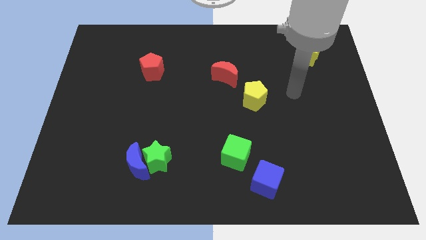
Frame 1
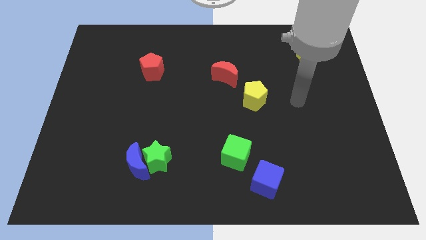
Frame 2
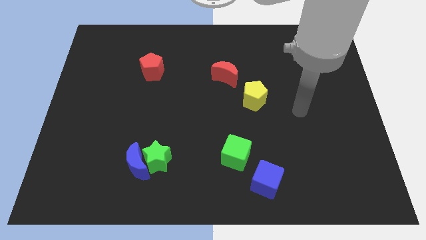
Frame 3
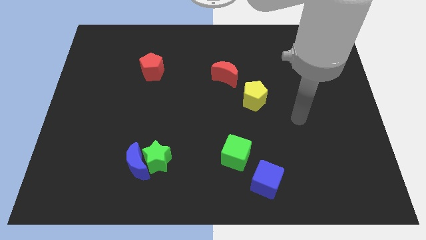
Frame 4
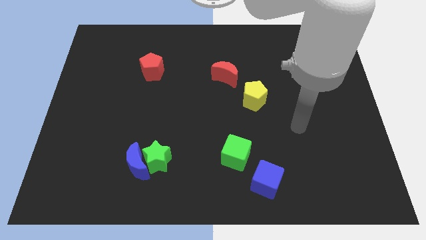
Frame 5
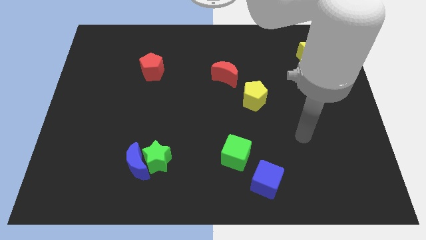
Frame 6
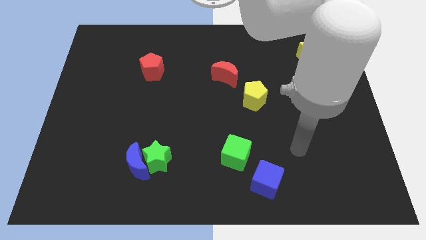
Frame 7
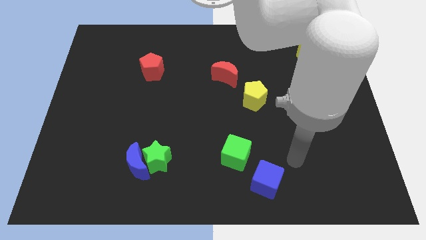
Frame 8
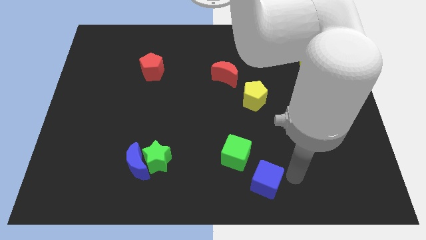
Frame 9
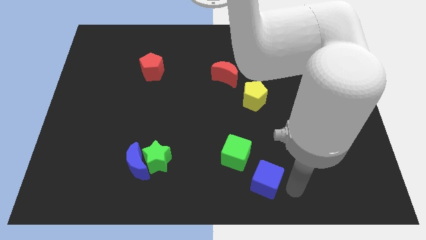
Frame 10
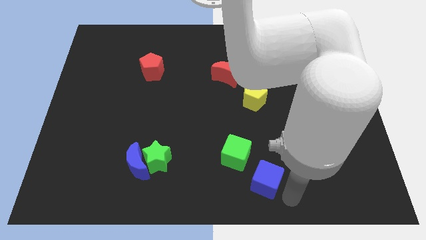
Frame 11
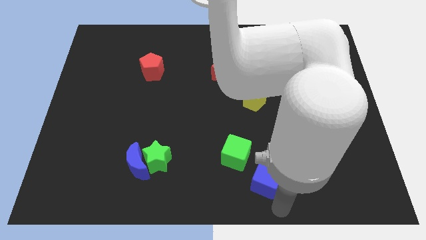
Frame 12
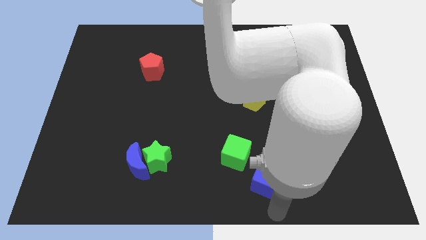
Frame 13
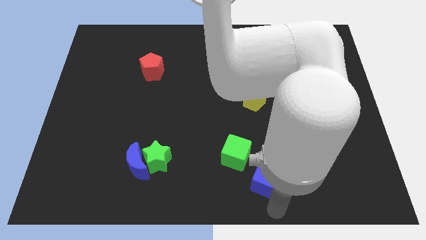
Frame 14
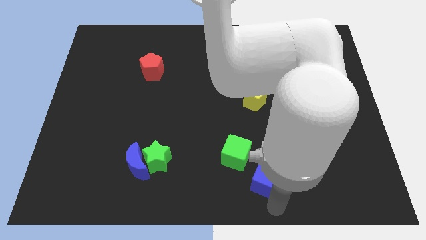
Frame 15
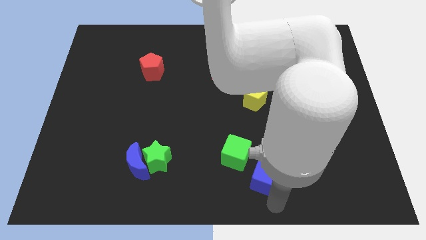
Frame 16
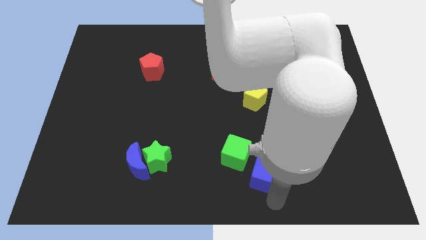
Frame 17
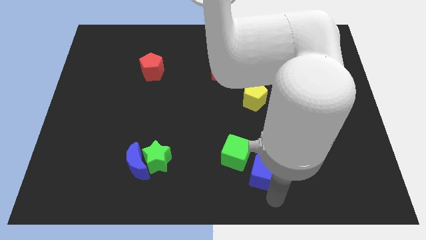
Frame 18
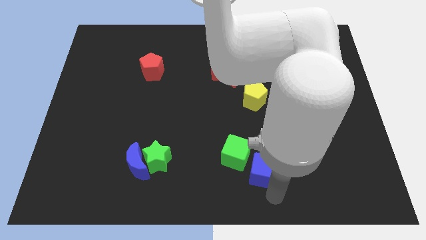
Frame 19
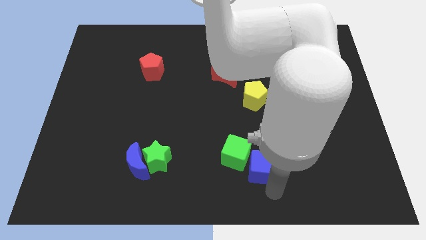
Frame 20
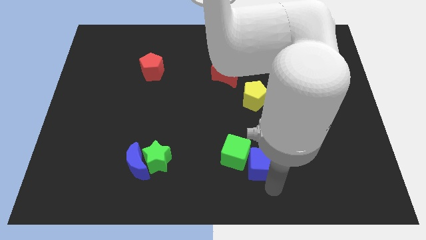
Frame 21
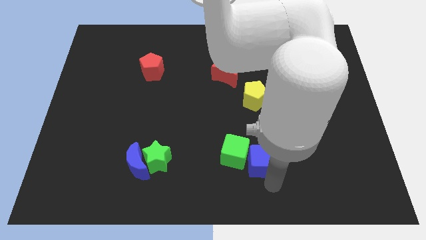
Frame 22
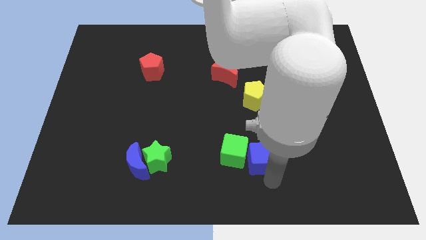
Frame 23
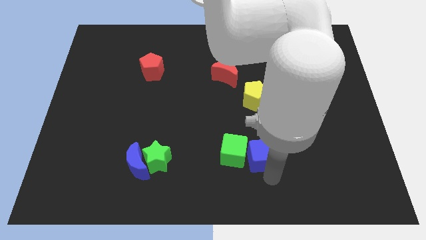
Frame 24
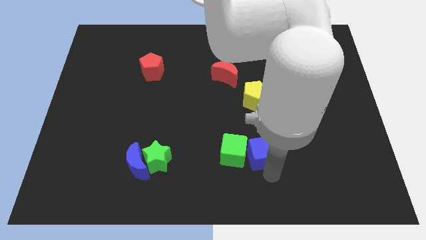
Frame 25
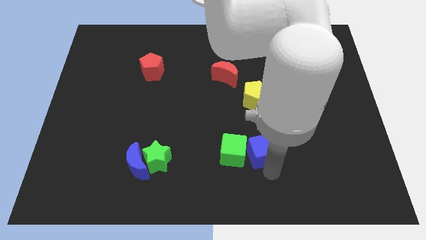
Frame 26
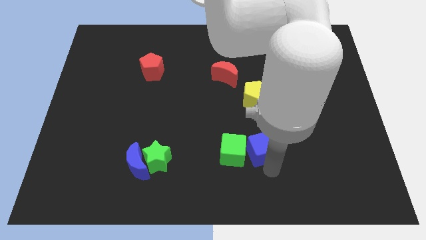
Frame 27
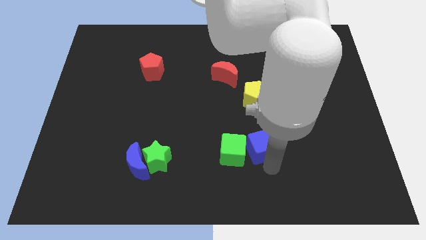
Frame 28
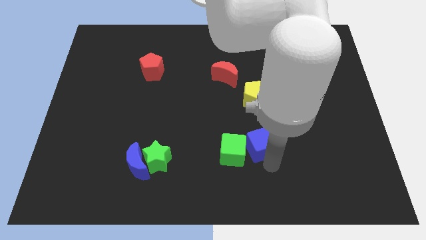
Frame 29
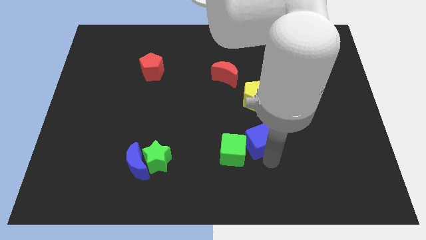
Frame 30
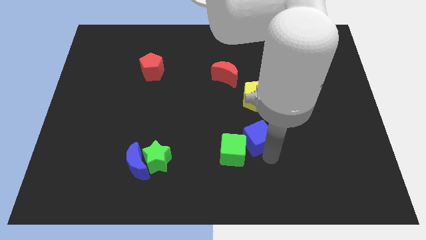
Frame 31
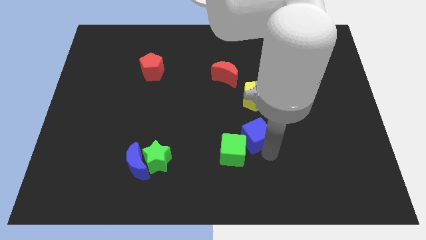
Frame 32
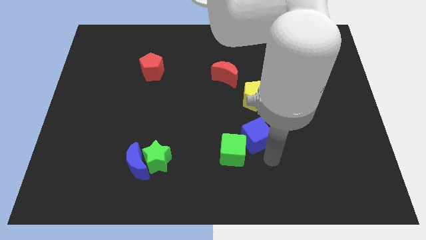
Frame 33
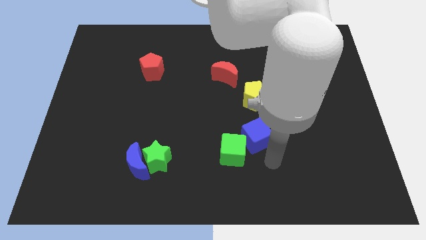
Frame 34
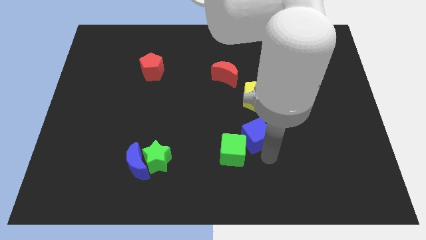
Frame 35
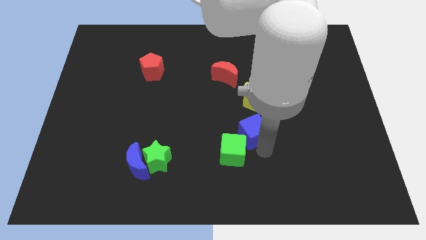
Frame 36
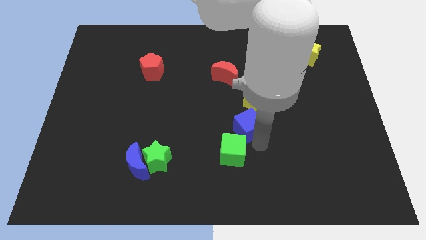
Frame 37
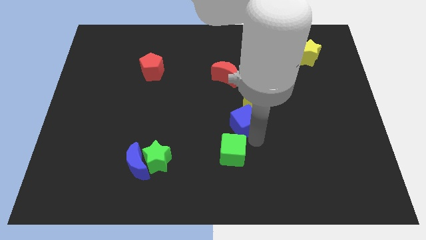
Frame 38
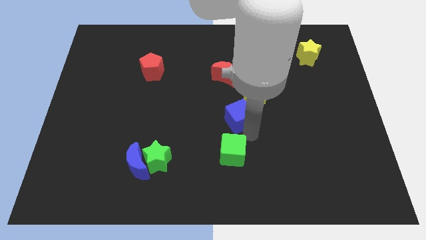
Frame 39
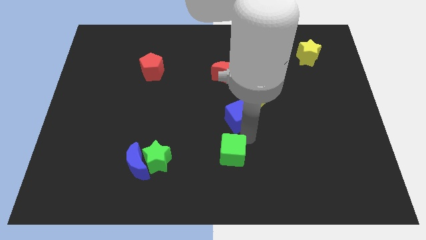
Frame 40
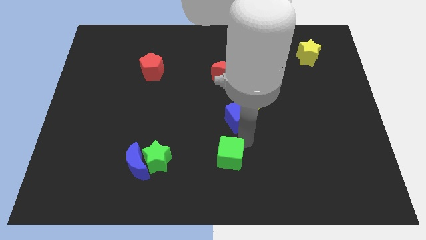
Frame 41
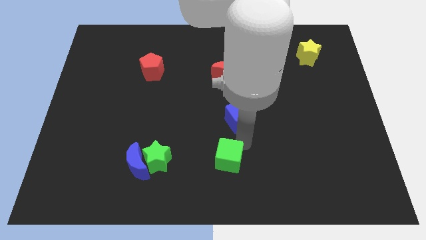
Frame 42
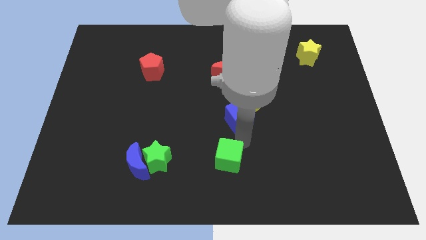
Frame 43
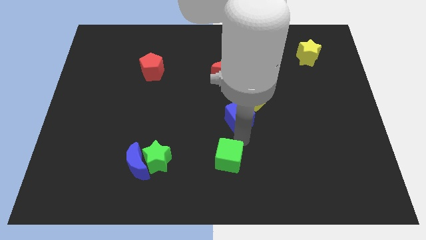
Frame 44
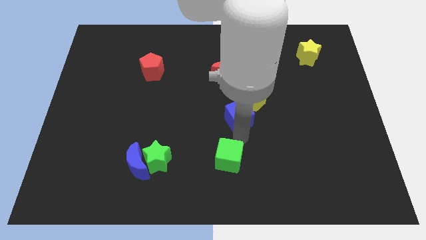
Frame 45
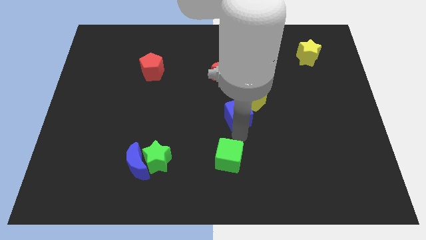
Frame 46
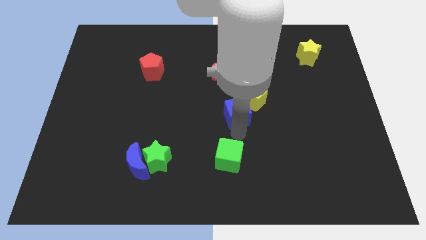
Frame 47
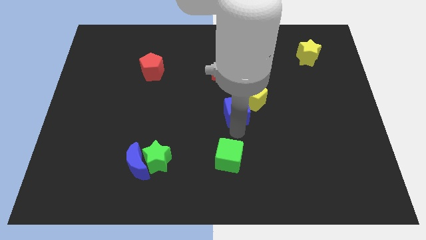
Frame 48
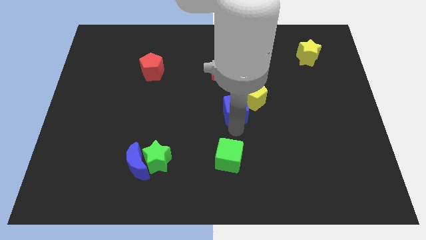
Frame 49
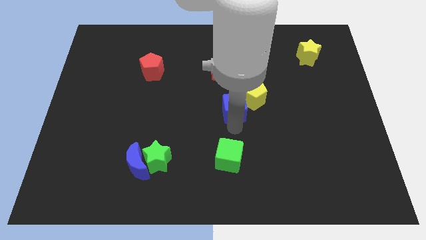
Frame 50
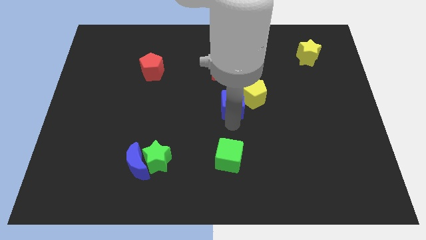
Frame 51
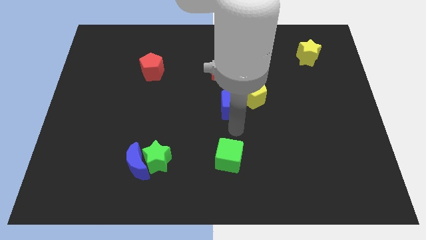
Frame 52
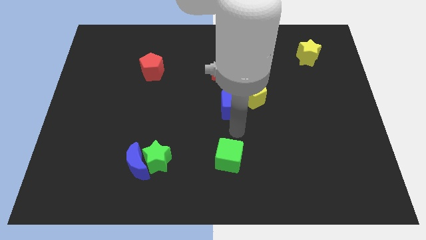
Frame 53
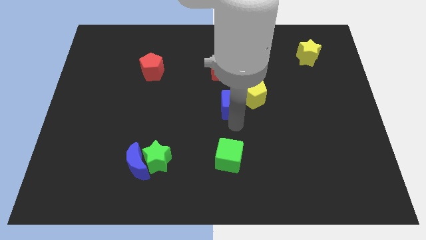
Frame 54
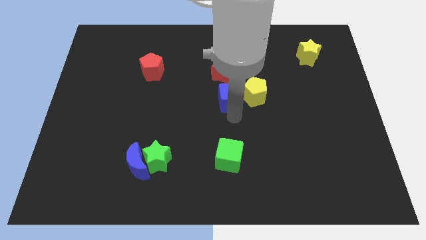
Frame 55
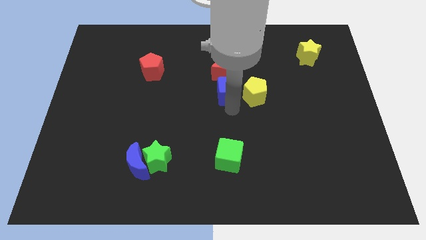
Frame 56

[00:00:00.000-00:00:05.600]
put the blue cube next to the red moon

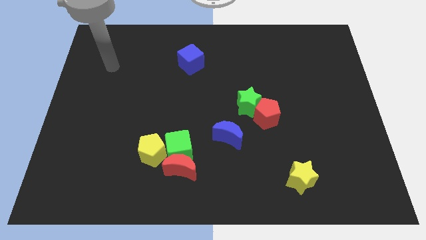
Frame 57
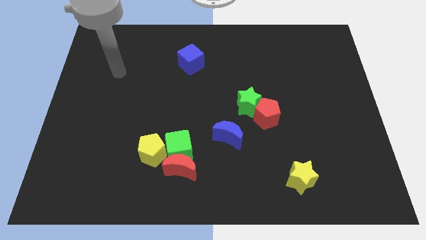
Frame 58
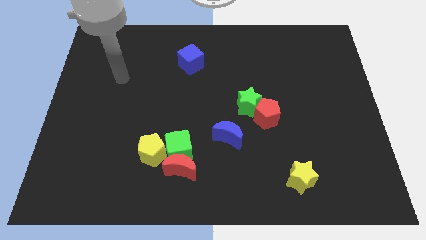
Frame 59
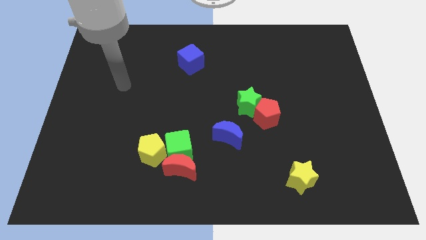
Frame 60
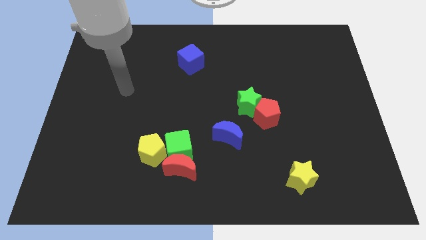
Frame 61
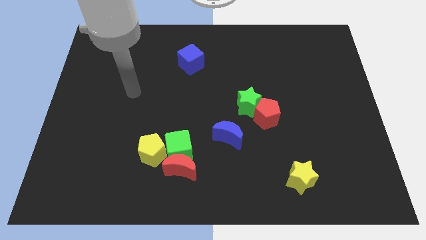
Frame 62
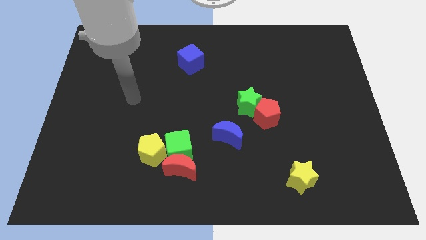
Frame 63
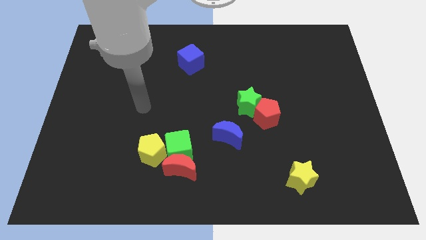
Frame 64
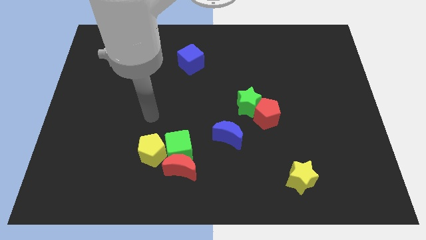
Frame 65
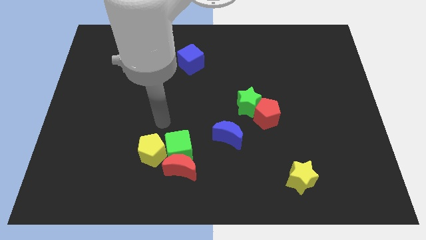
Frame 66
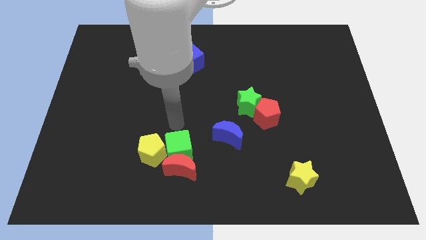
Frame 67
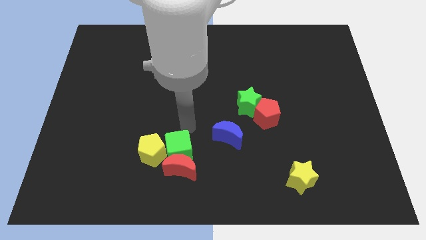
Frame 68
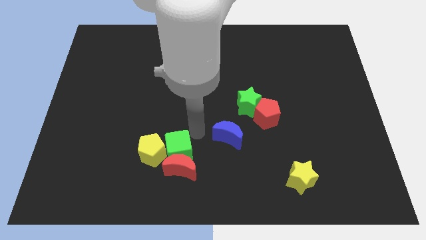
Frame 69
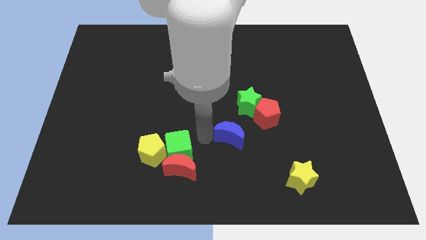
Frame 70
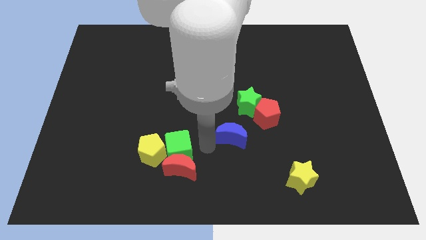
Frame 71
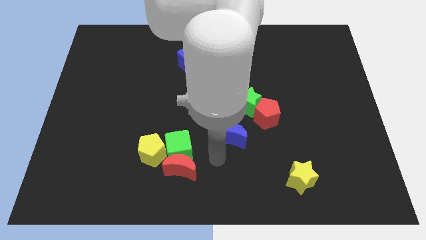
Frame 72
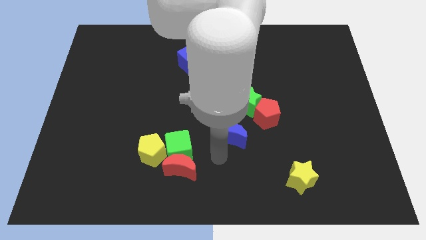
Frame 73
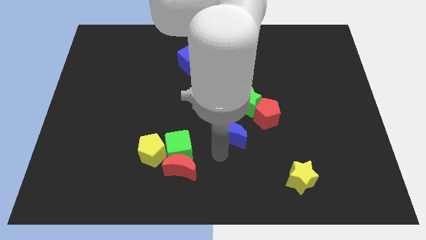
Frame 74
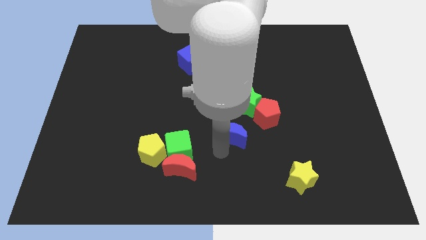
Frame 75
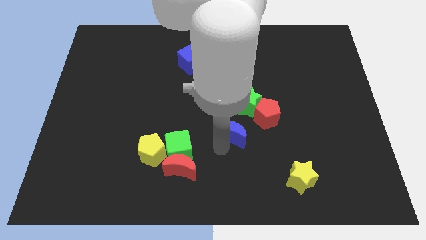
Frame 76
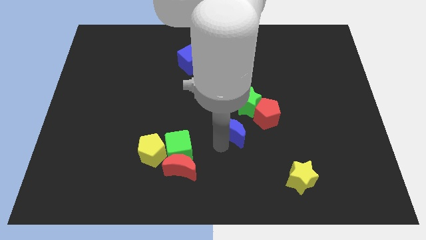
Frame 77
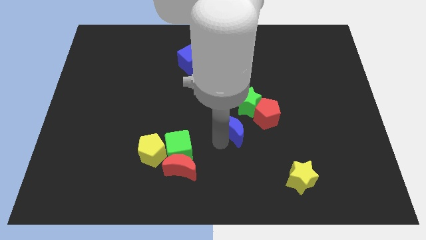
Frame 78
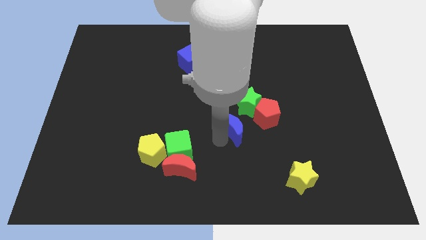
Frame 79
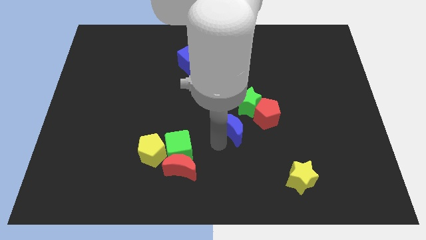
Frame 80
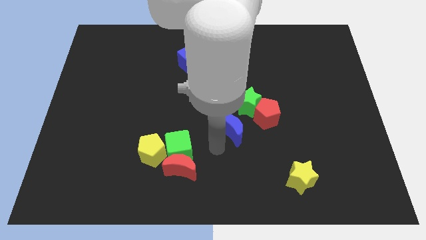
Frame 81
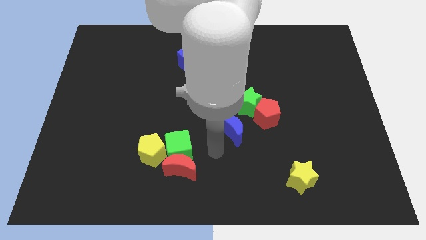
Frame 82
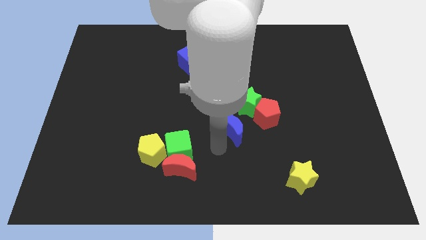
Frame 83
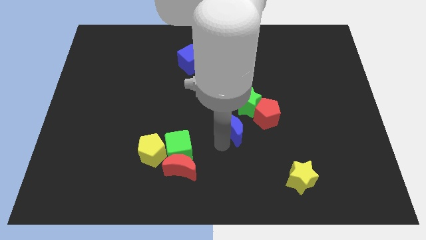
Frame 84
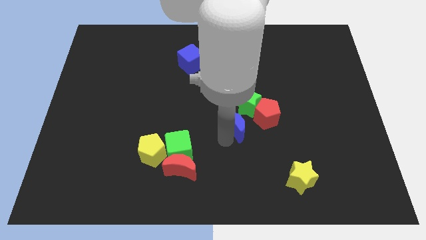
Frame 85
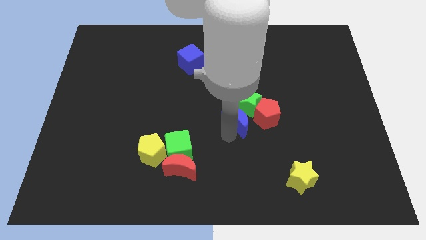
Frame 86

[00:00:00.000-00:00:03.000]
put the blue moon towards the green star
